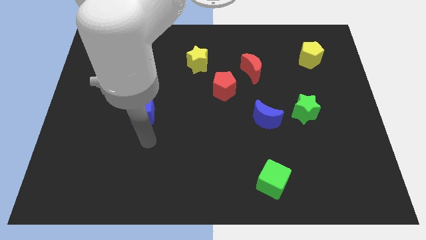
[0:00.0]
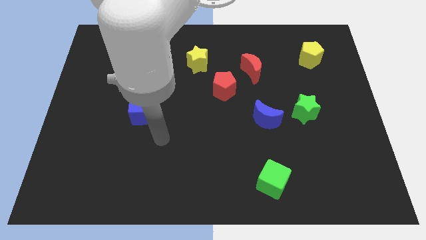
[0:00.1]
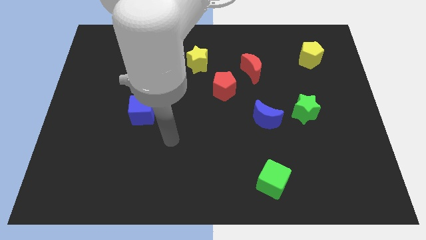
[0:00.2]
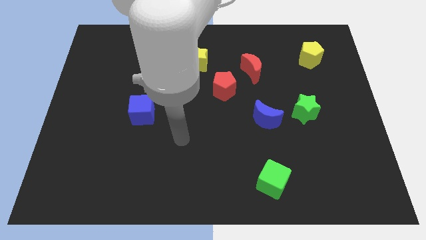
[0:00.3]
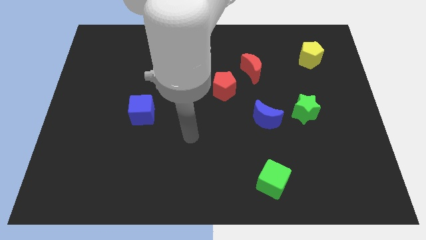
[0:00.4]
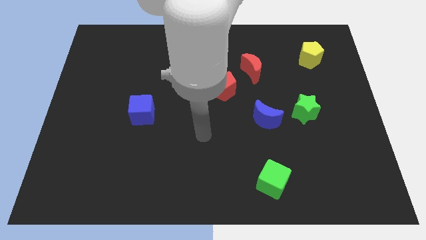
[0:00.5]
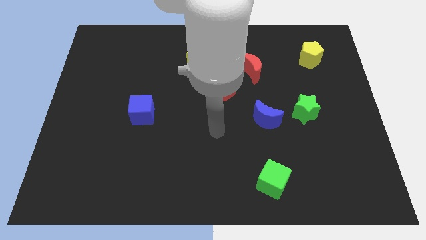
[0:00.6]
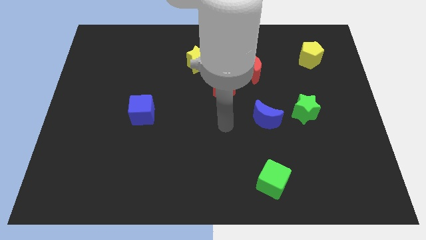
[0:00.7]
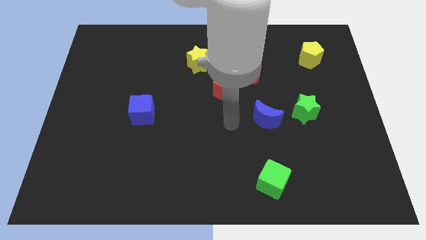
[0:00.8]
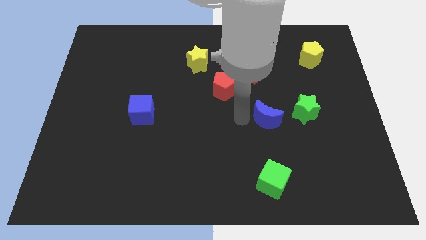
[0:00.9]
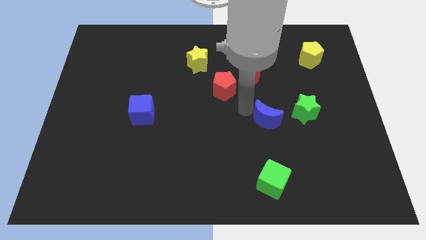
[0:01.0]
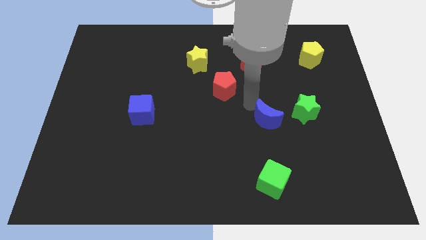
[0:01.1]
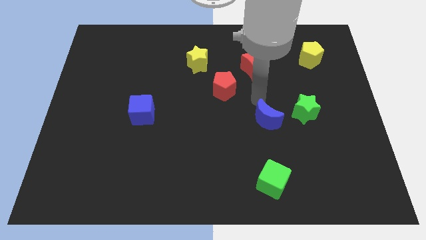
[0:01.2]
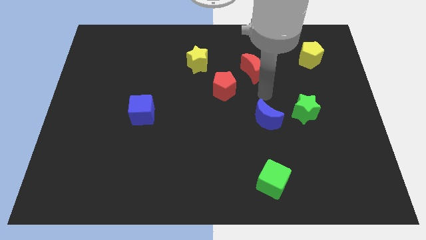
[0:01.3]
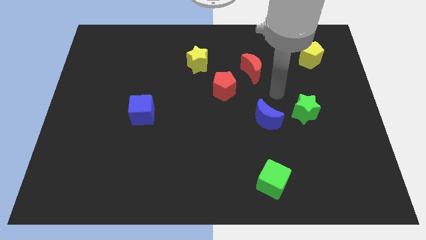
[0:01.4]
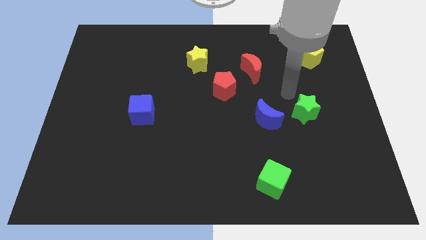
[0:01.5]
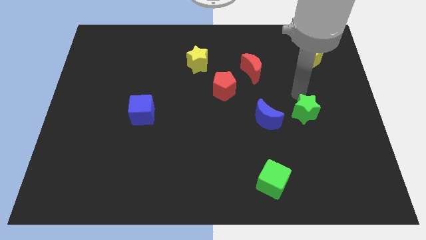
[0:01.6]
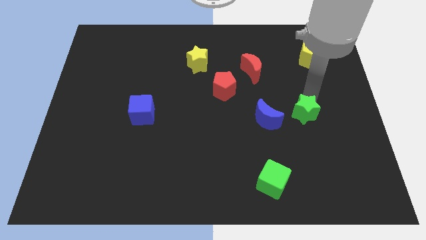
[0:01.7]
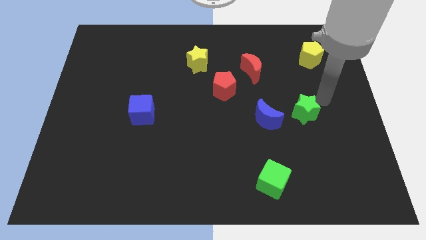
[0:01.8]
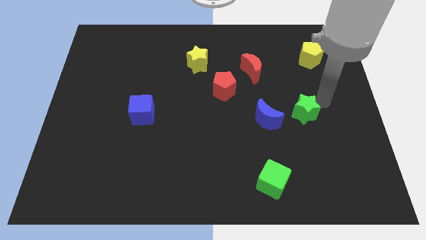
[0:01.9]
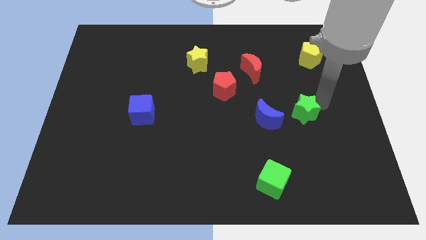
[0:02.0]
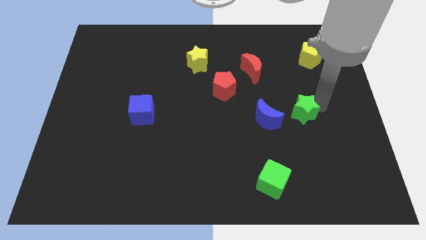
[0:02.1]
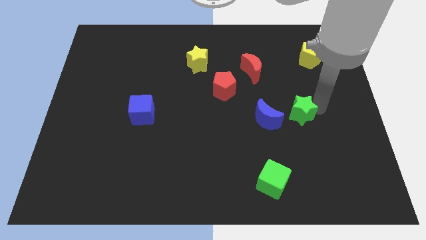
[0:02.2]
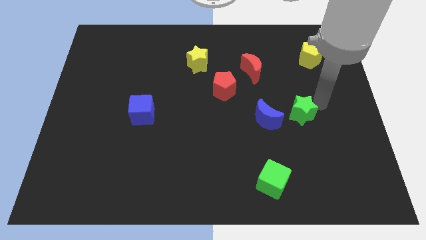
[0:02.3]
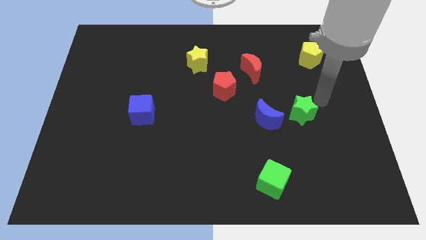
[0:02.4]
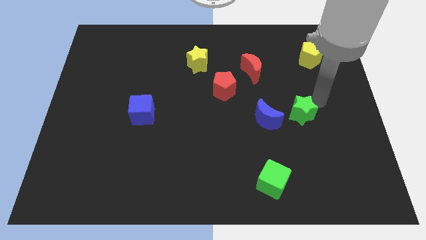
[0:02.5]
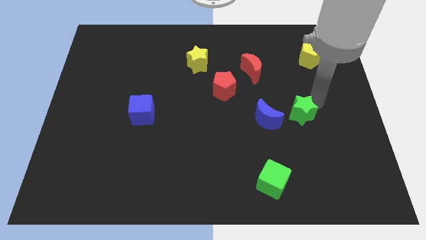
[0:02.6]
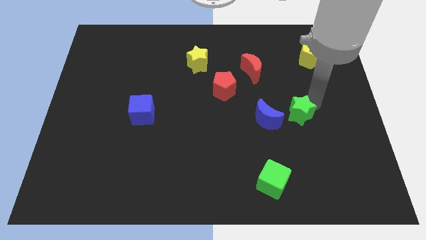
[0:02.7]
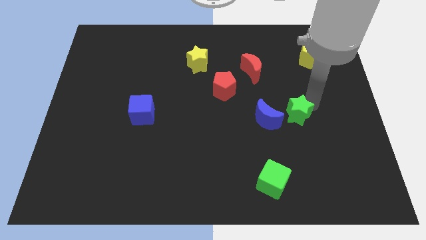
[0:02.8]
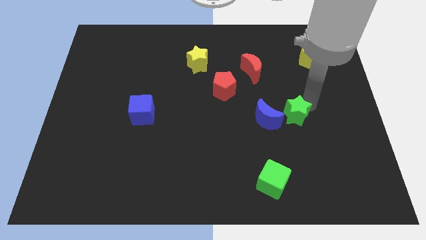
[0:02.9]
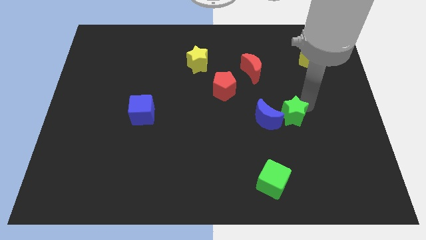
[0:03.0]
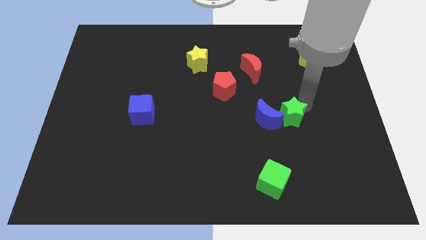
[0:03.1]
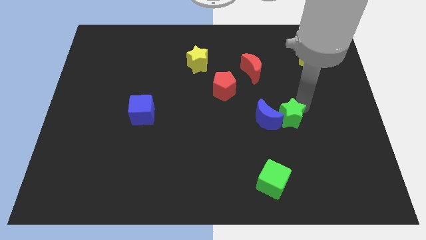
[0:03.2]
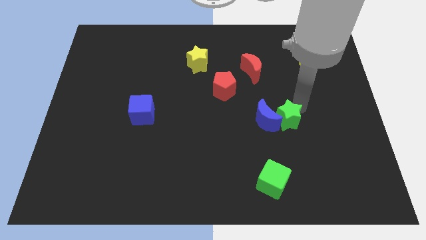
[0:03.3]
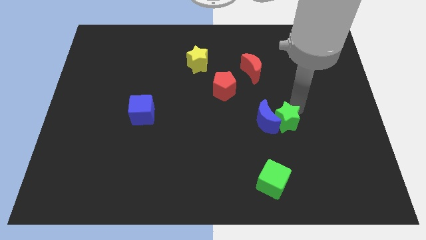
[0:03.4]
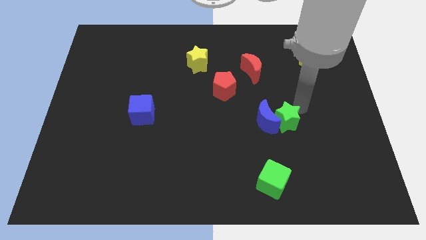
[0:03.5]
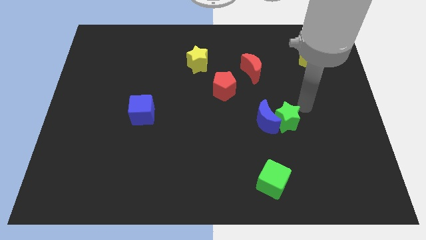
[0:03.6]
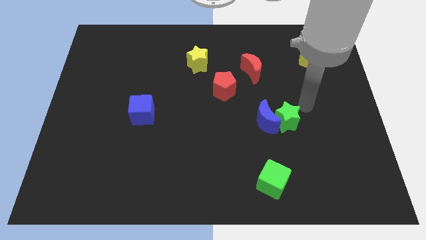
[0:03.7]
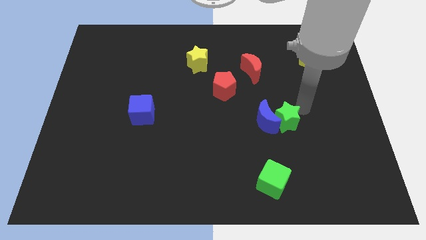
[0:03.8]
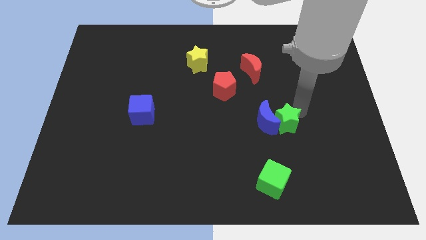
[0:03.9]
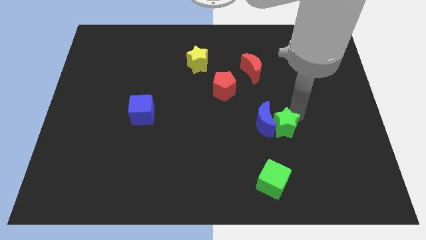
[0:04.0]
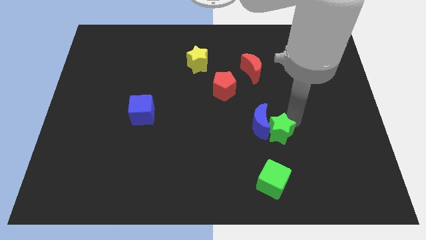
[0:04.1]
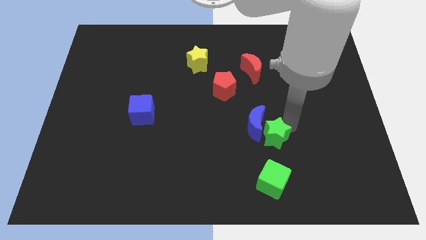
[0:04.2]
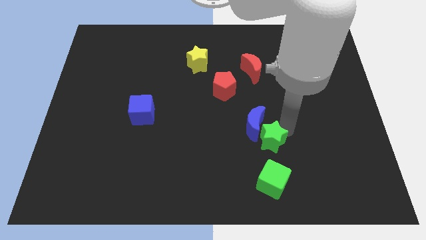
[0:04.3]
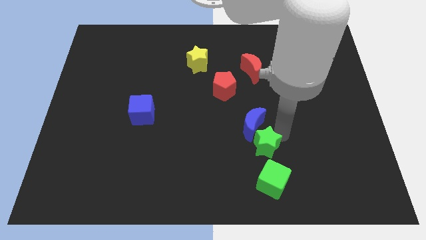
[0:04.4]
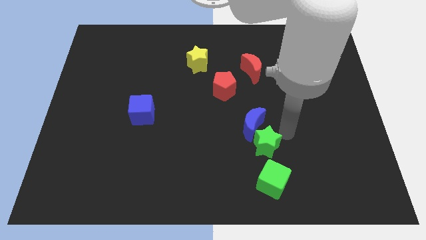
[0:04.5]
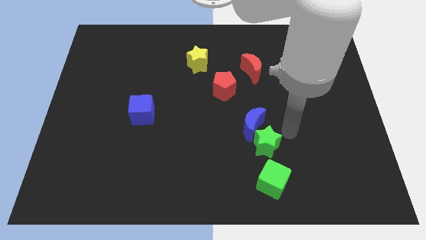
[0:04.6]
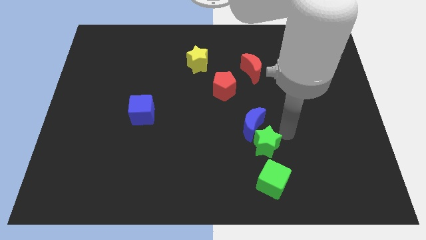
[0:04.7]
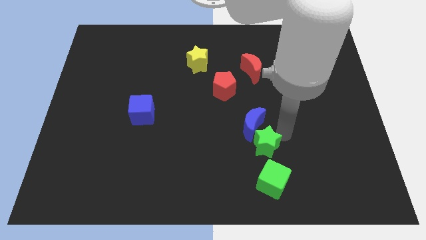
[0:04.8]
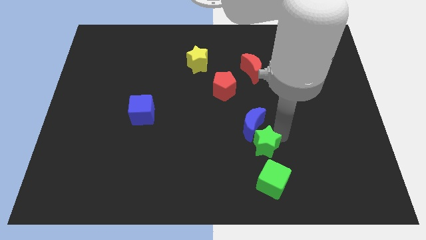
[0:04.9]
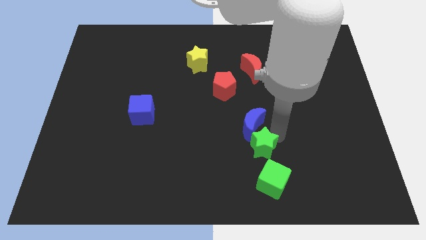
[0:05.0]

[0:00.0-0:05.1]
slide the green star diagonally up and to the left of the green cube

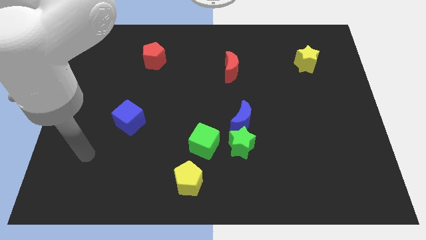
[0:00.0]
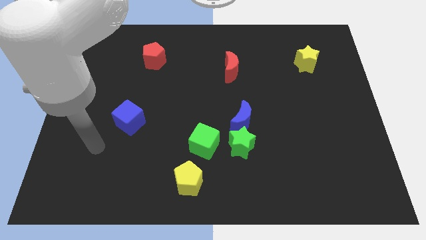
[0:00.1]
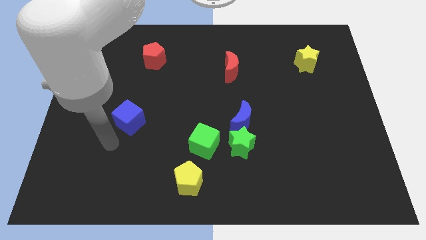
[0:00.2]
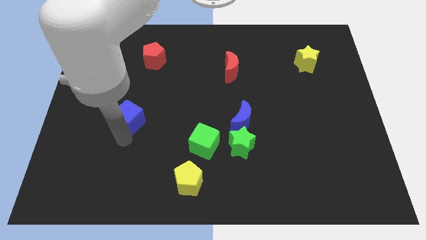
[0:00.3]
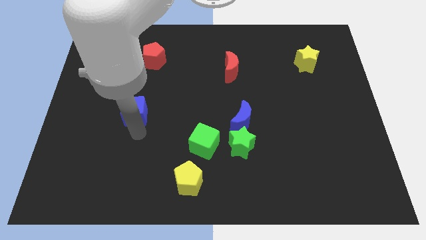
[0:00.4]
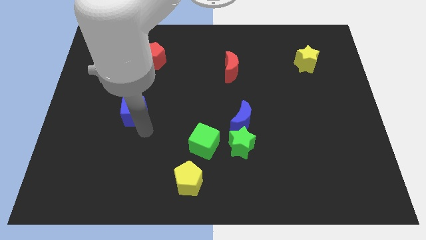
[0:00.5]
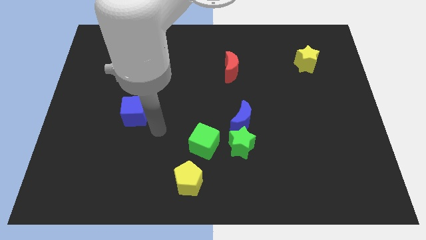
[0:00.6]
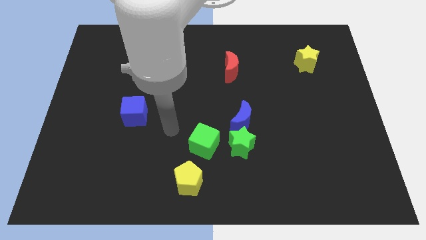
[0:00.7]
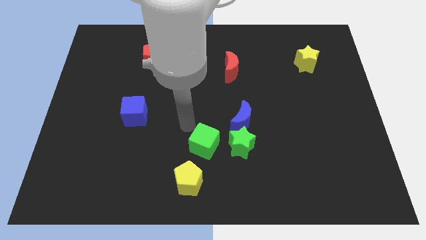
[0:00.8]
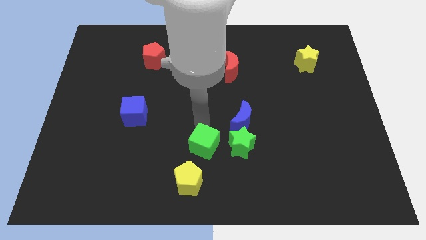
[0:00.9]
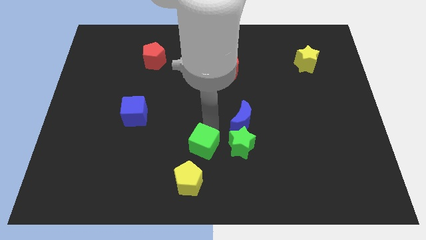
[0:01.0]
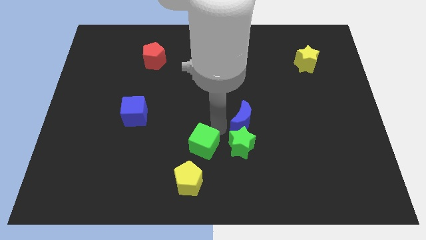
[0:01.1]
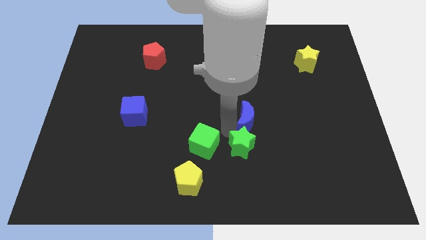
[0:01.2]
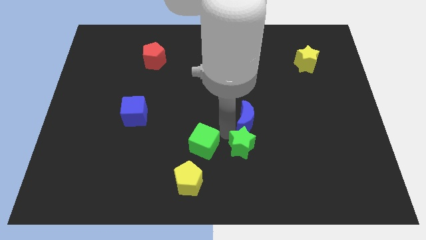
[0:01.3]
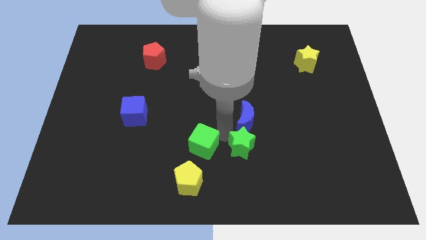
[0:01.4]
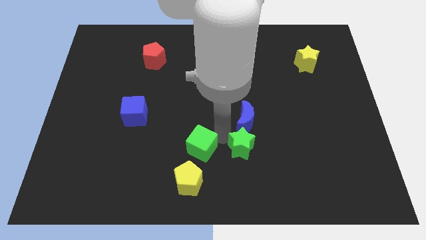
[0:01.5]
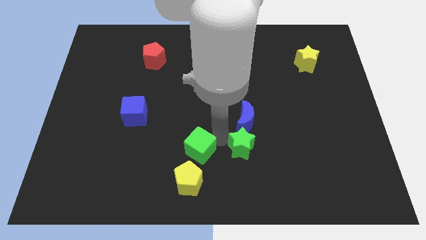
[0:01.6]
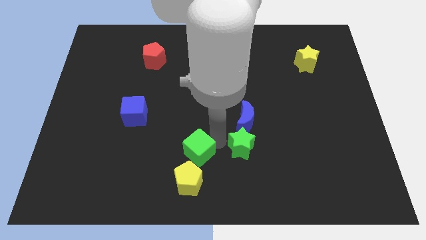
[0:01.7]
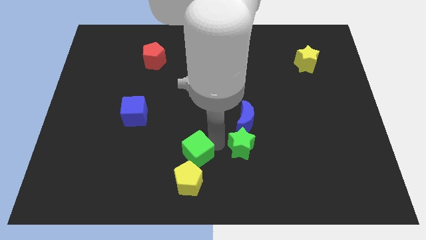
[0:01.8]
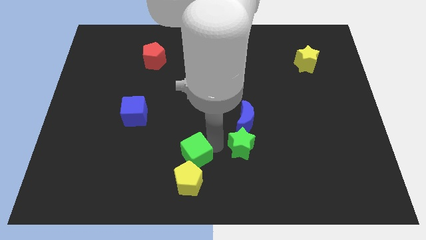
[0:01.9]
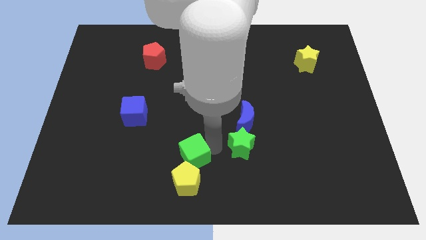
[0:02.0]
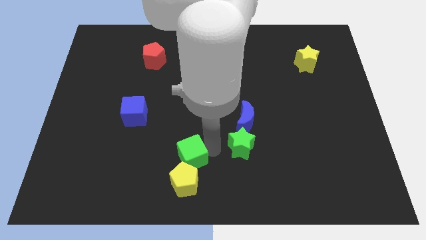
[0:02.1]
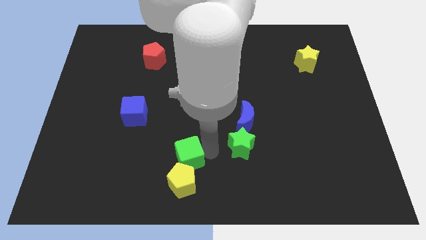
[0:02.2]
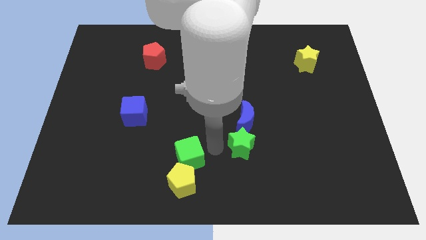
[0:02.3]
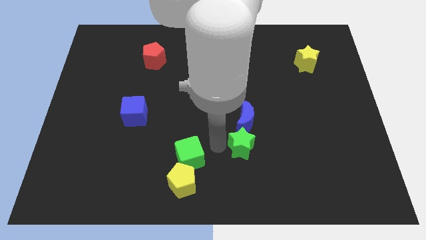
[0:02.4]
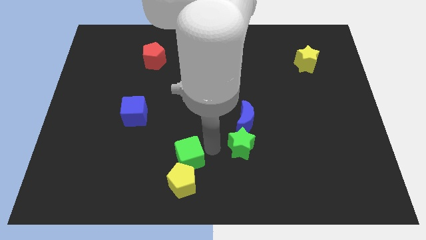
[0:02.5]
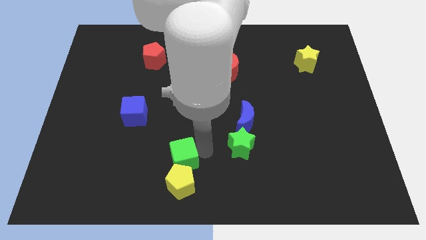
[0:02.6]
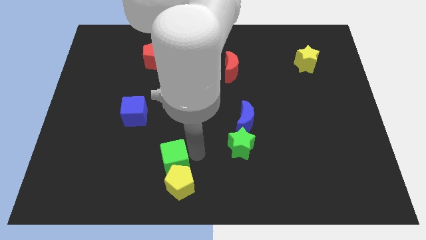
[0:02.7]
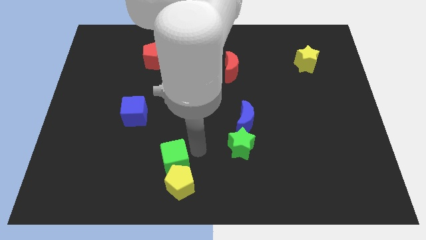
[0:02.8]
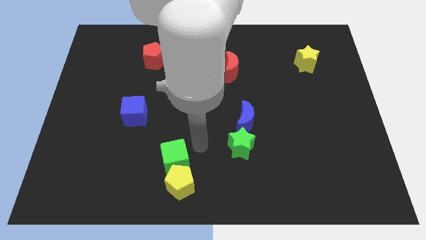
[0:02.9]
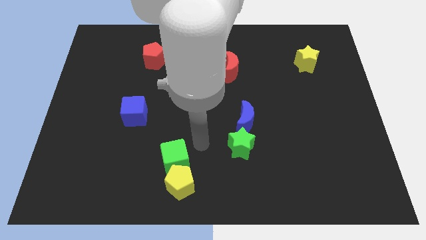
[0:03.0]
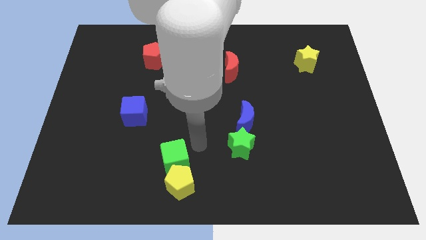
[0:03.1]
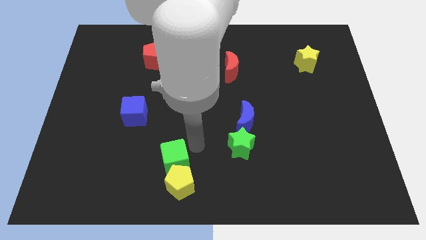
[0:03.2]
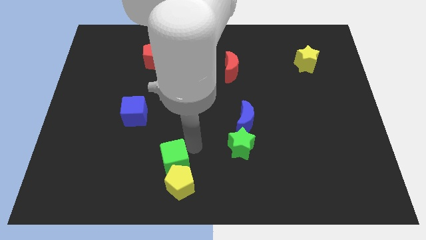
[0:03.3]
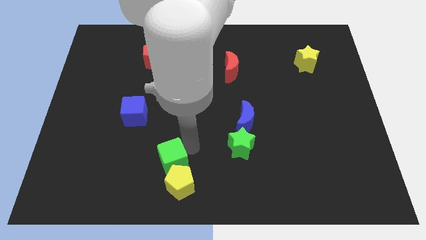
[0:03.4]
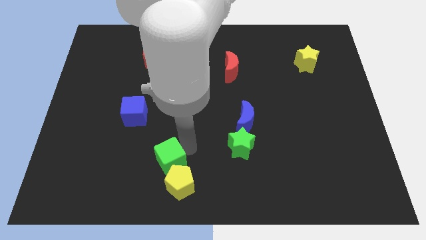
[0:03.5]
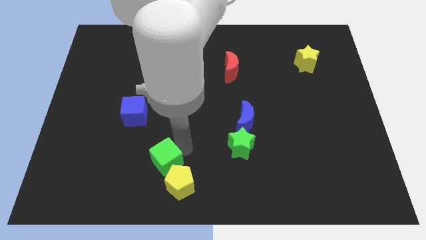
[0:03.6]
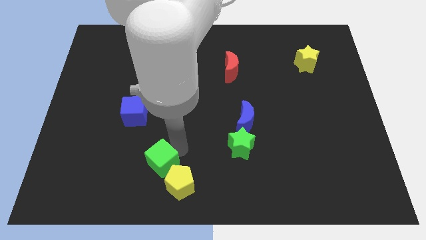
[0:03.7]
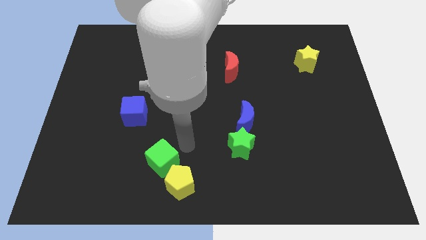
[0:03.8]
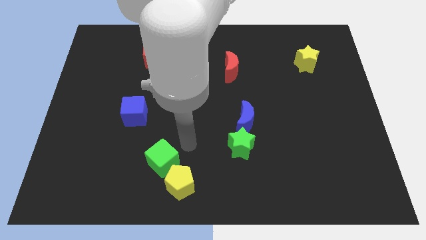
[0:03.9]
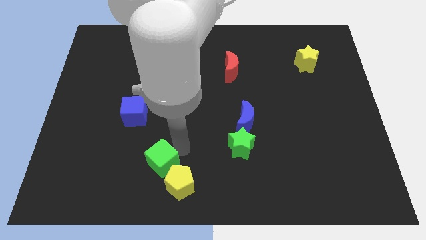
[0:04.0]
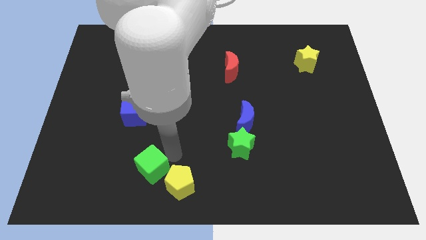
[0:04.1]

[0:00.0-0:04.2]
push the green cube to the left of the yellow pentagon
